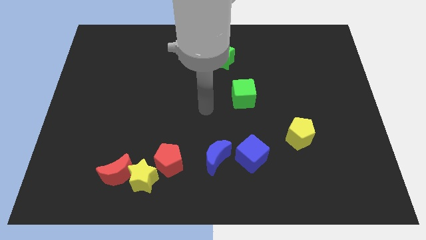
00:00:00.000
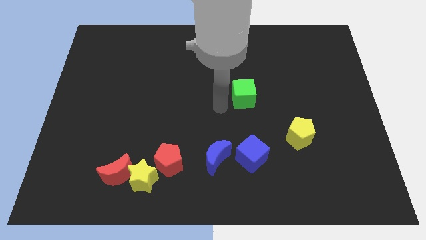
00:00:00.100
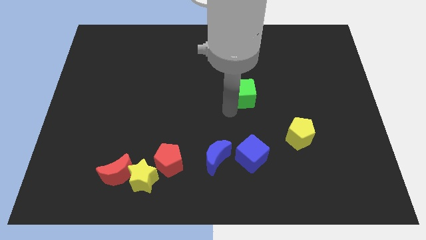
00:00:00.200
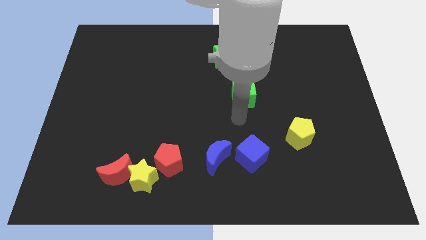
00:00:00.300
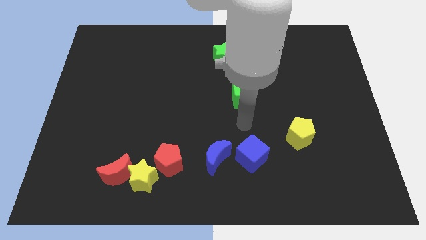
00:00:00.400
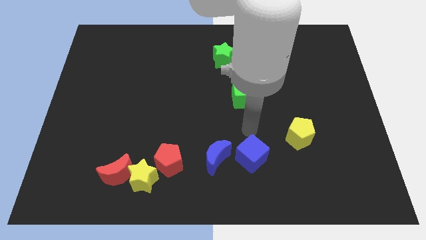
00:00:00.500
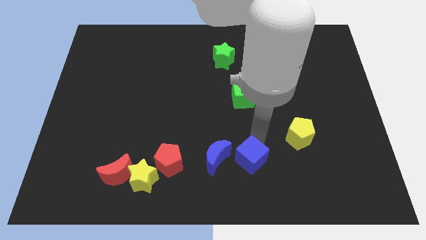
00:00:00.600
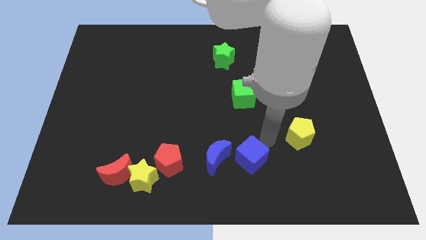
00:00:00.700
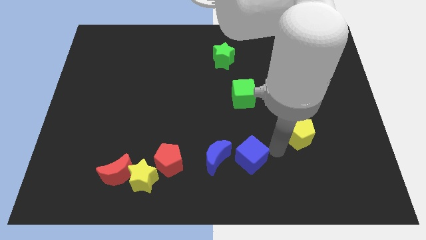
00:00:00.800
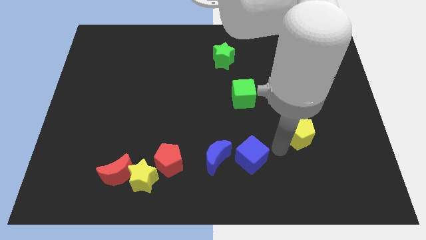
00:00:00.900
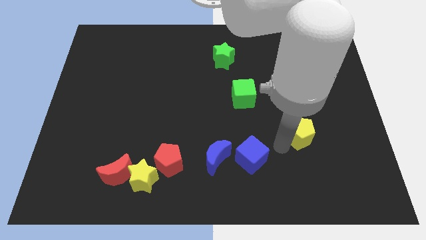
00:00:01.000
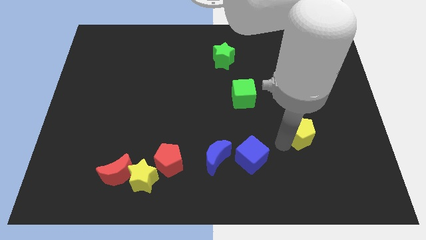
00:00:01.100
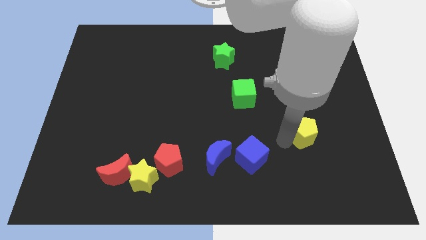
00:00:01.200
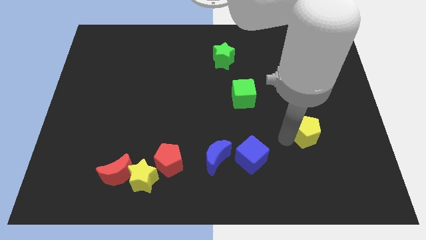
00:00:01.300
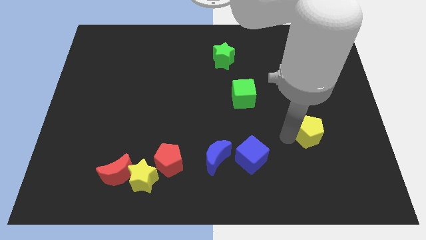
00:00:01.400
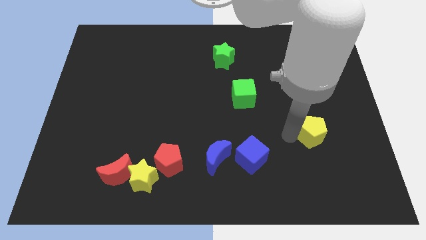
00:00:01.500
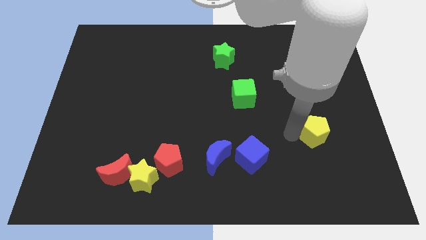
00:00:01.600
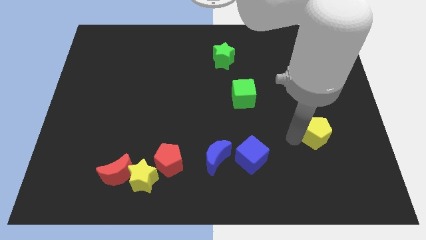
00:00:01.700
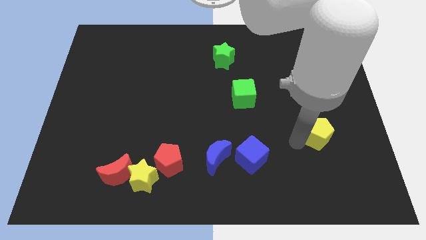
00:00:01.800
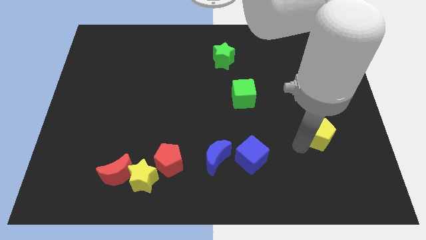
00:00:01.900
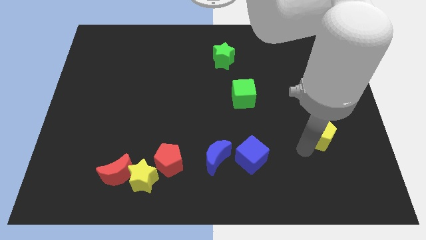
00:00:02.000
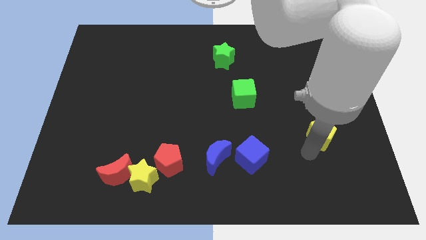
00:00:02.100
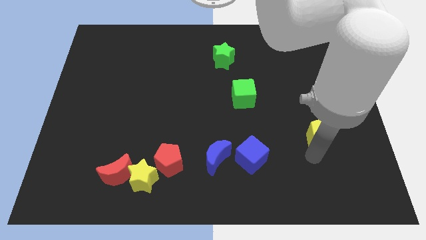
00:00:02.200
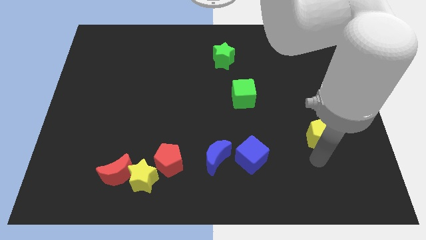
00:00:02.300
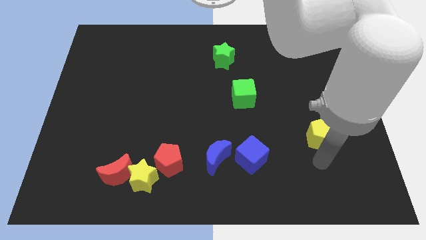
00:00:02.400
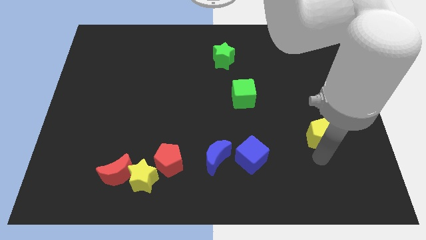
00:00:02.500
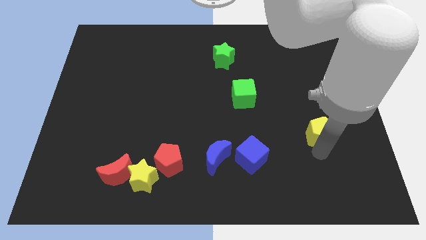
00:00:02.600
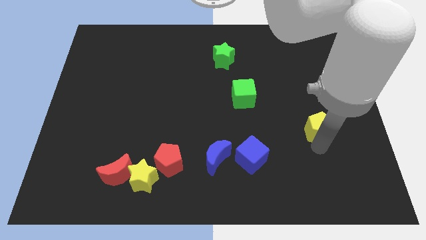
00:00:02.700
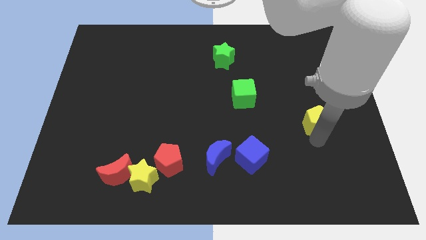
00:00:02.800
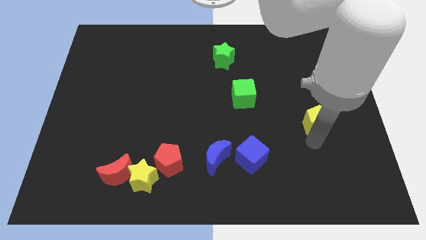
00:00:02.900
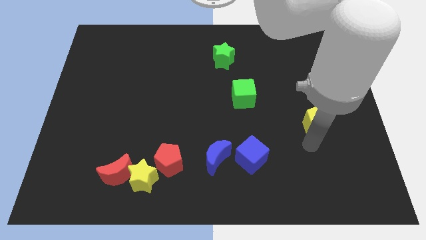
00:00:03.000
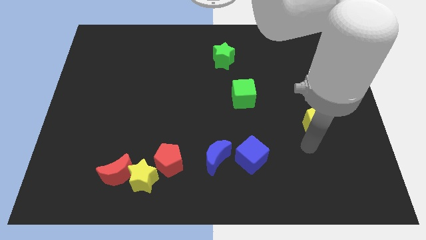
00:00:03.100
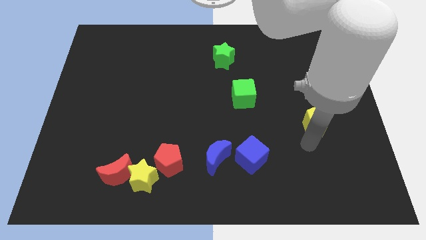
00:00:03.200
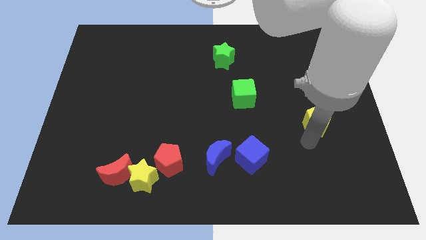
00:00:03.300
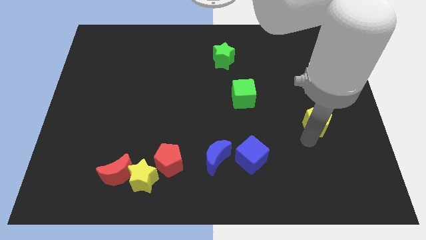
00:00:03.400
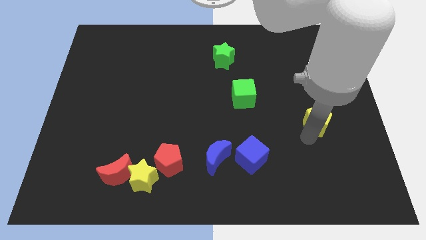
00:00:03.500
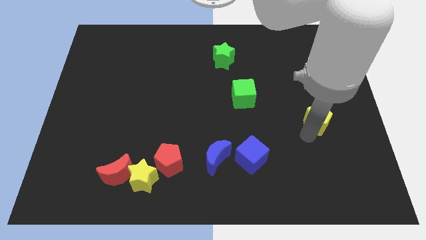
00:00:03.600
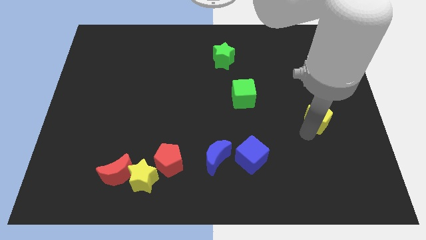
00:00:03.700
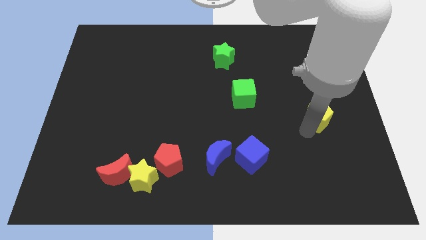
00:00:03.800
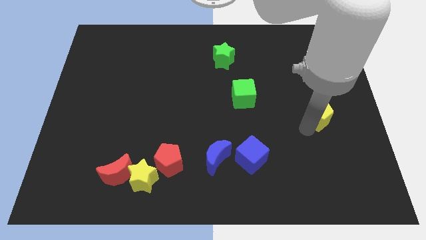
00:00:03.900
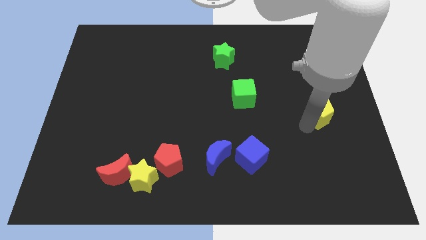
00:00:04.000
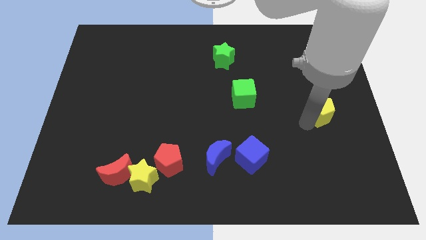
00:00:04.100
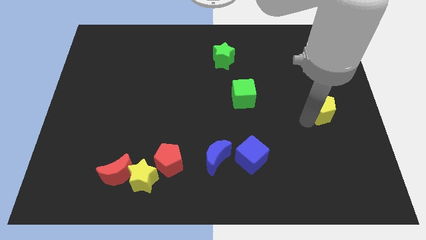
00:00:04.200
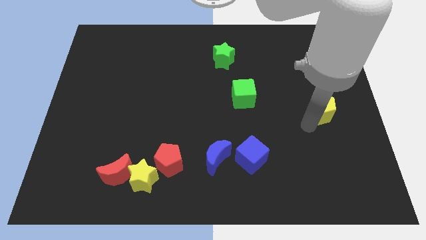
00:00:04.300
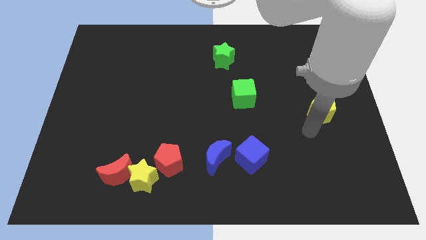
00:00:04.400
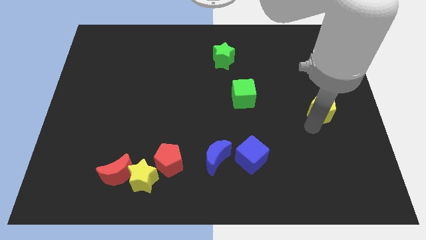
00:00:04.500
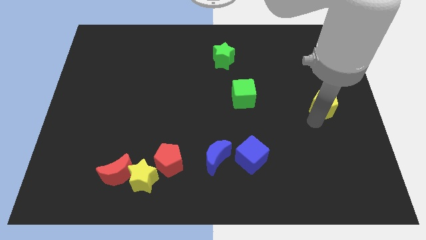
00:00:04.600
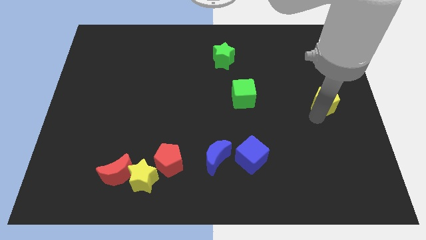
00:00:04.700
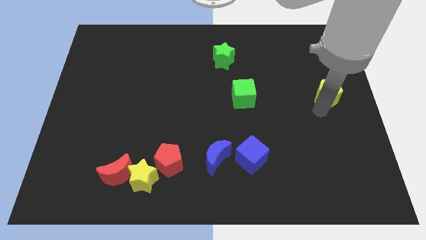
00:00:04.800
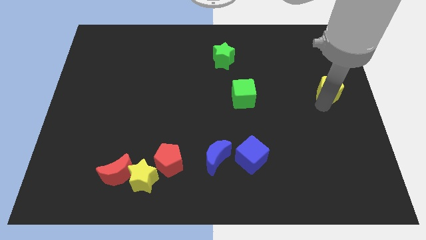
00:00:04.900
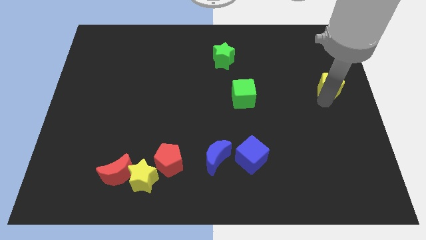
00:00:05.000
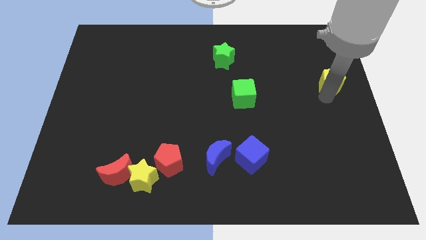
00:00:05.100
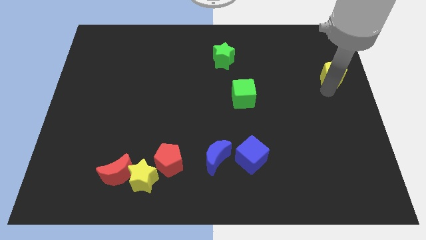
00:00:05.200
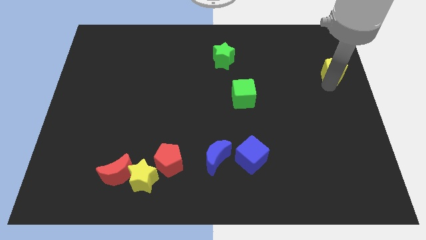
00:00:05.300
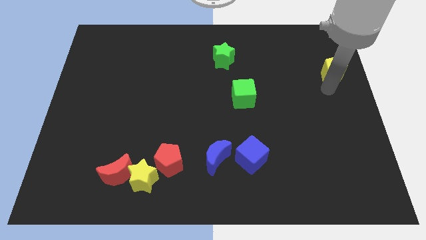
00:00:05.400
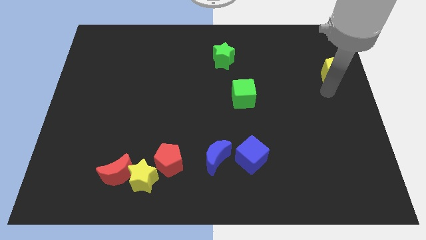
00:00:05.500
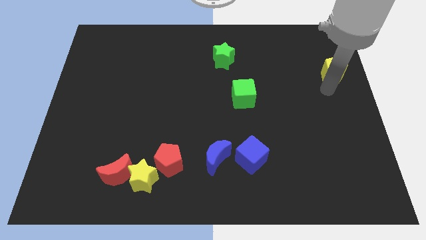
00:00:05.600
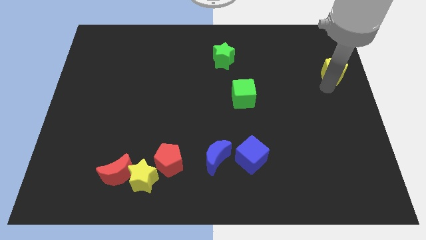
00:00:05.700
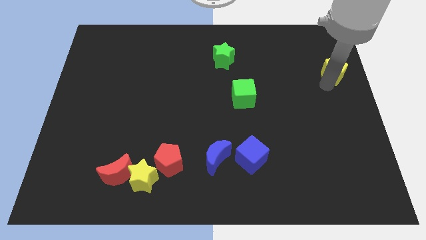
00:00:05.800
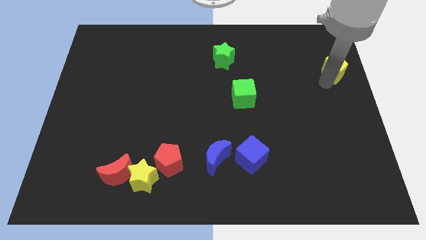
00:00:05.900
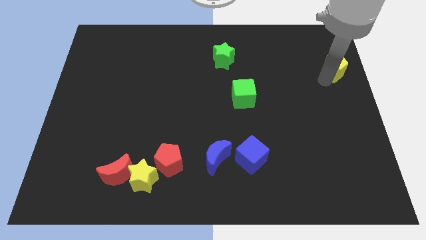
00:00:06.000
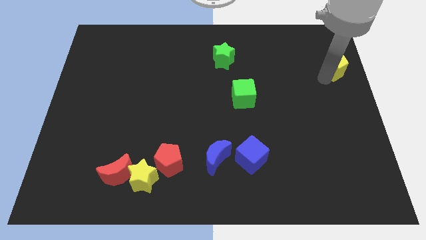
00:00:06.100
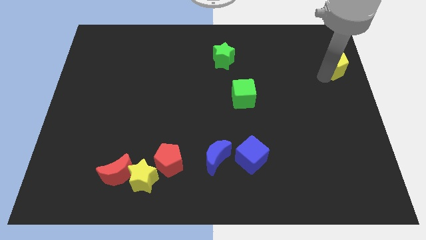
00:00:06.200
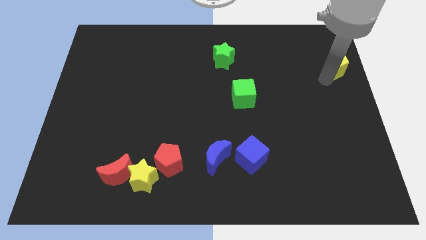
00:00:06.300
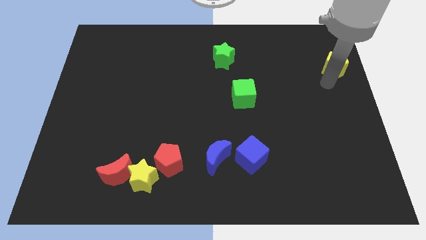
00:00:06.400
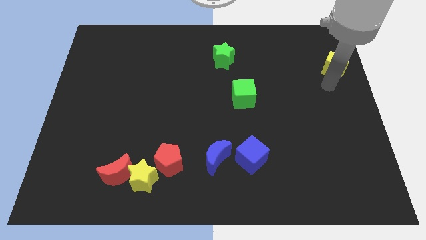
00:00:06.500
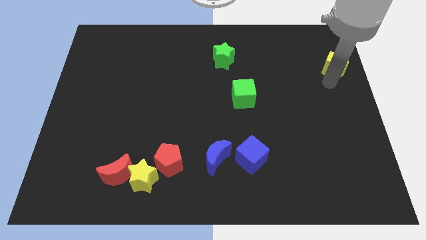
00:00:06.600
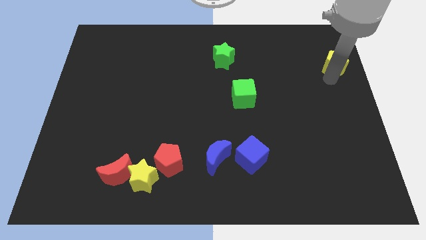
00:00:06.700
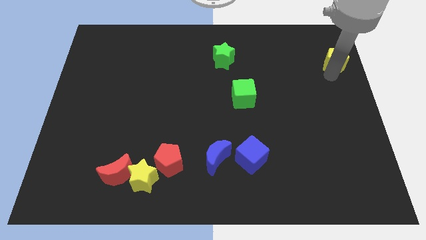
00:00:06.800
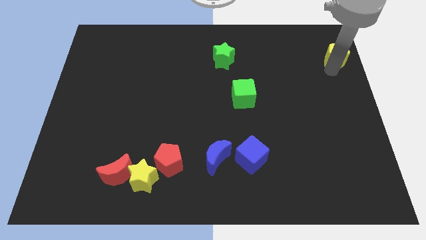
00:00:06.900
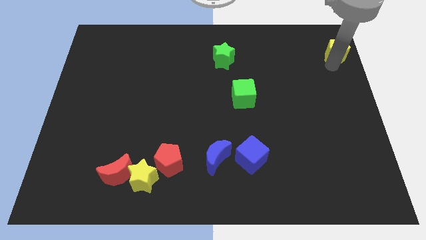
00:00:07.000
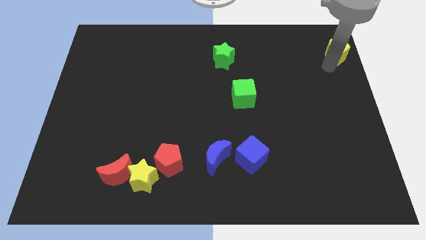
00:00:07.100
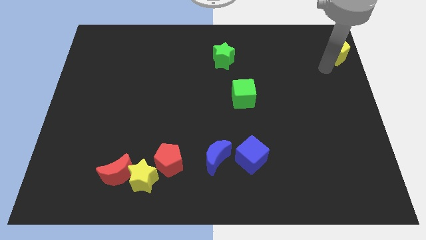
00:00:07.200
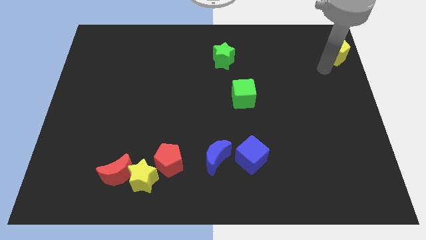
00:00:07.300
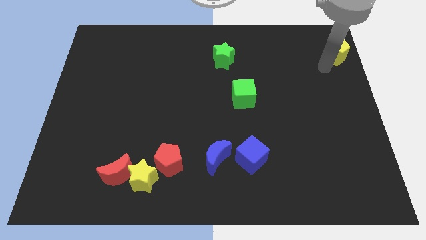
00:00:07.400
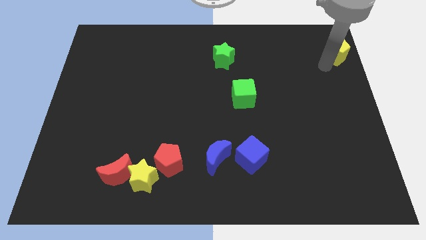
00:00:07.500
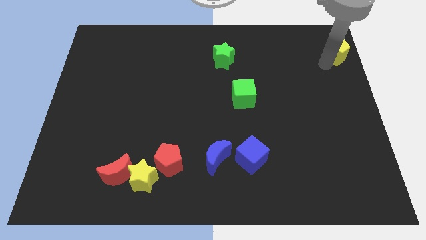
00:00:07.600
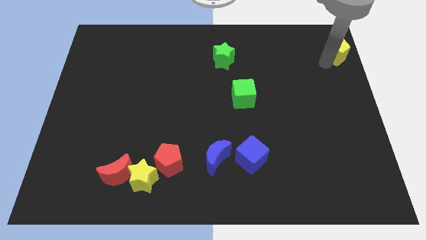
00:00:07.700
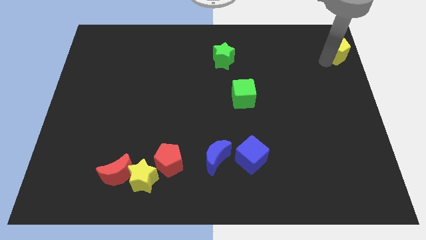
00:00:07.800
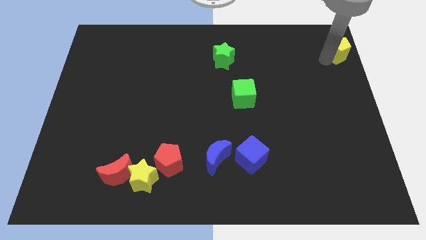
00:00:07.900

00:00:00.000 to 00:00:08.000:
slide the yellow pentagon to the top right of the board
